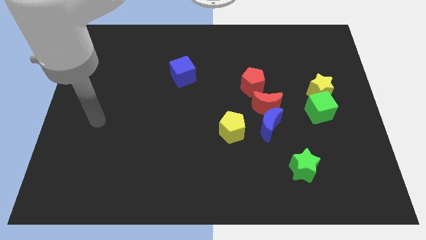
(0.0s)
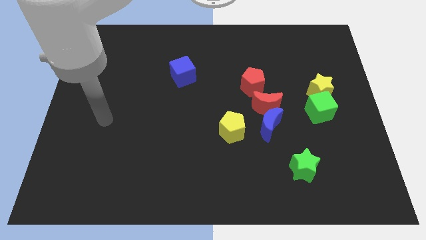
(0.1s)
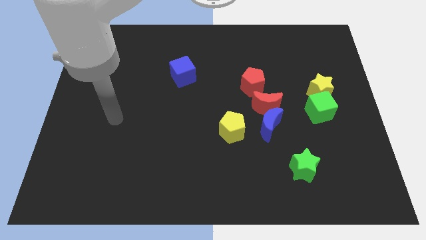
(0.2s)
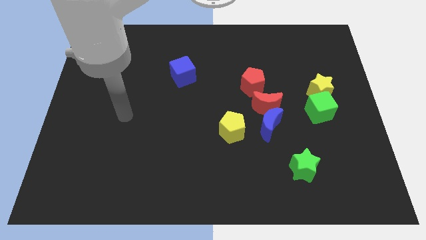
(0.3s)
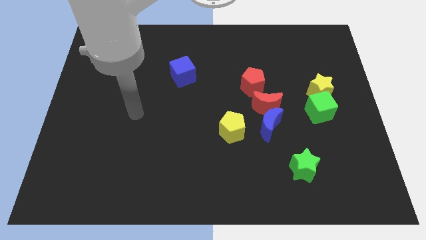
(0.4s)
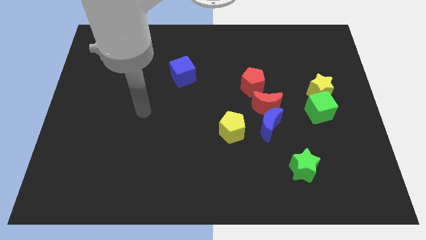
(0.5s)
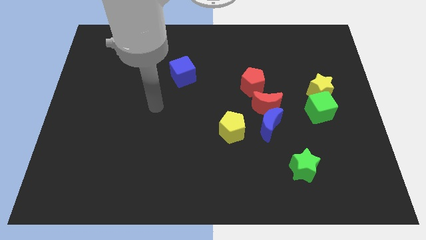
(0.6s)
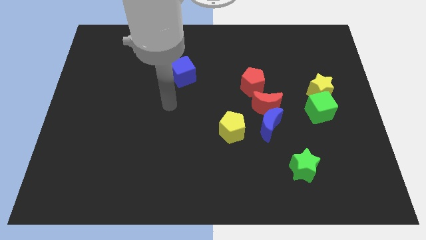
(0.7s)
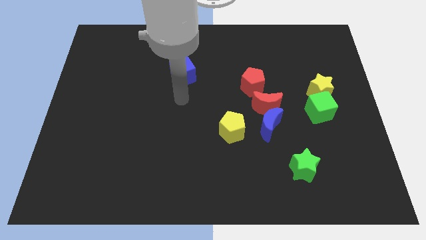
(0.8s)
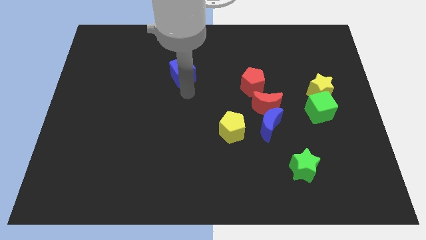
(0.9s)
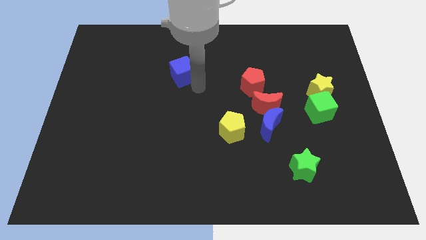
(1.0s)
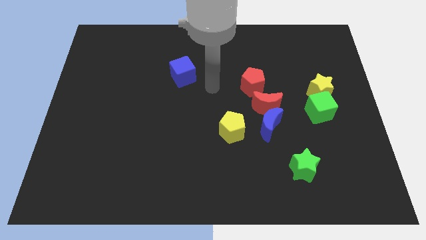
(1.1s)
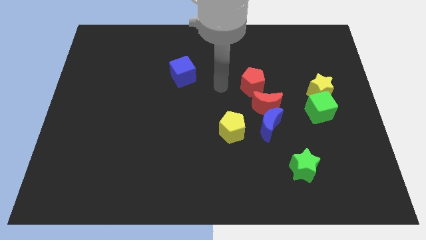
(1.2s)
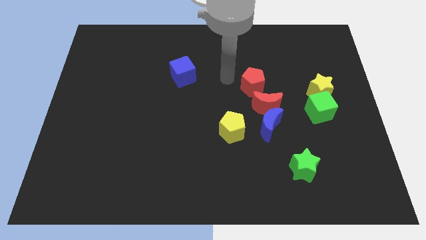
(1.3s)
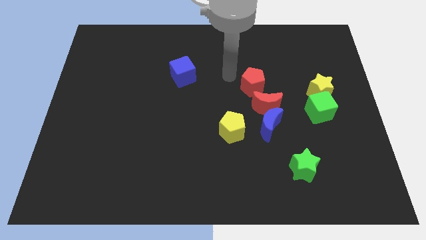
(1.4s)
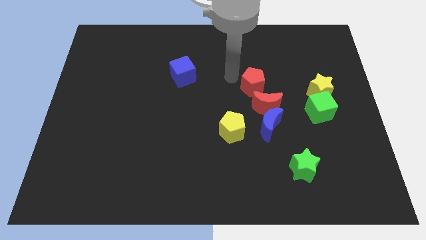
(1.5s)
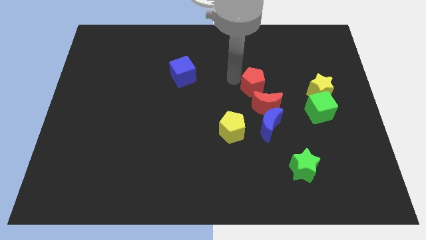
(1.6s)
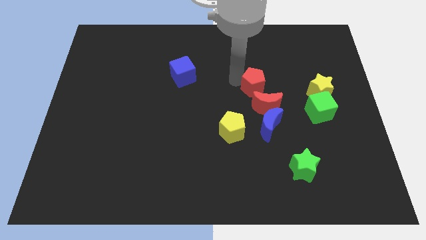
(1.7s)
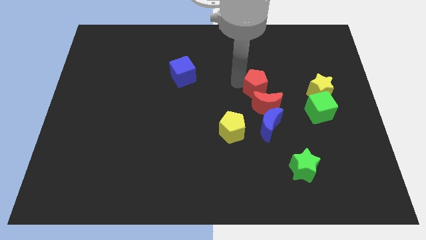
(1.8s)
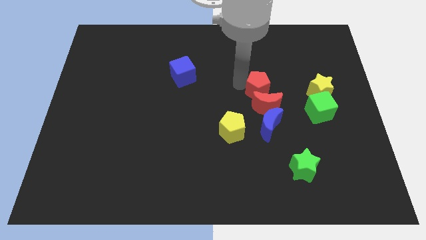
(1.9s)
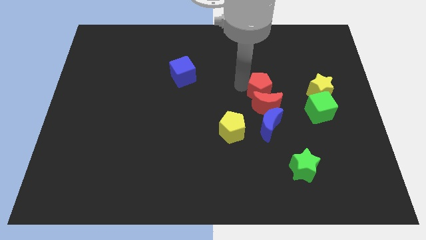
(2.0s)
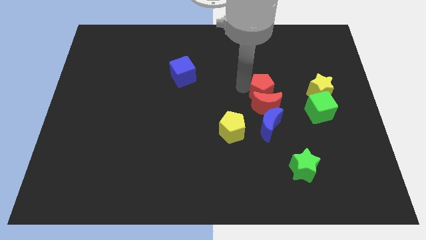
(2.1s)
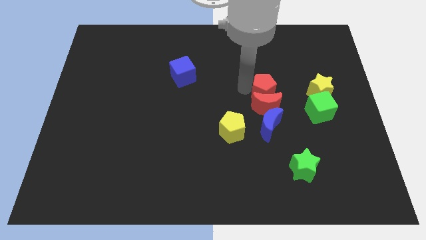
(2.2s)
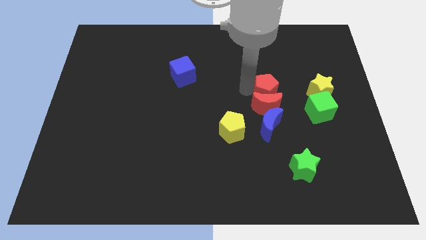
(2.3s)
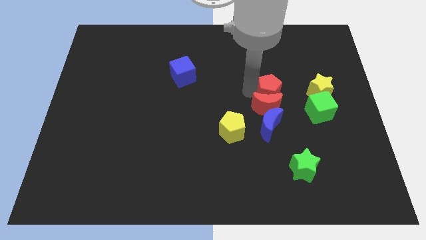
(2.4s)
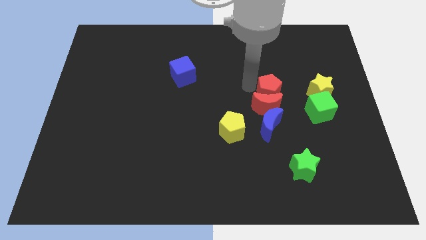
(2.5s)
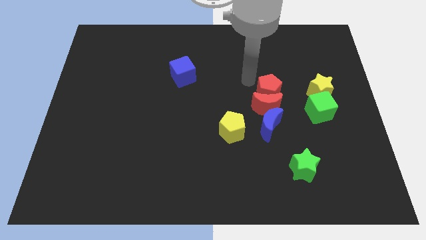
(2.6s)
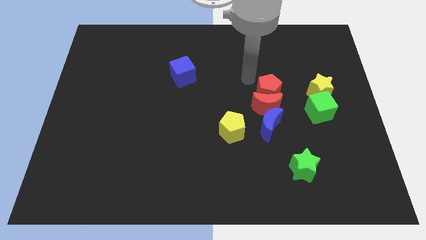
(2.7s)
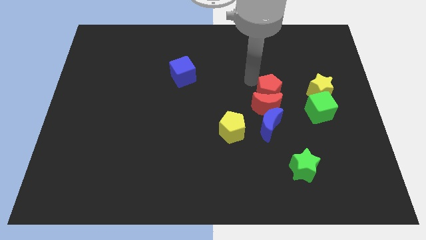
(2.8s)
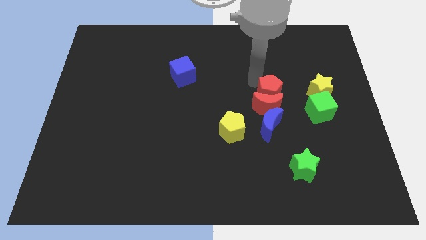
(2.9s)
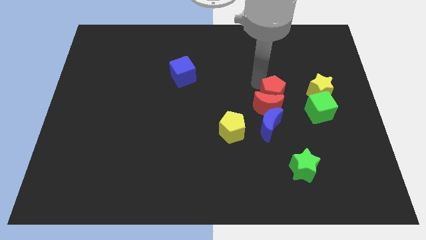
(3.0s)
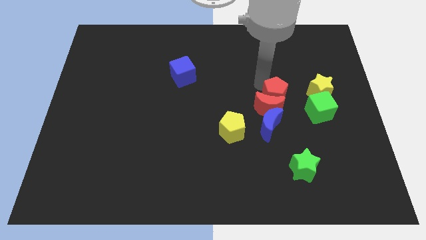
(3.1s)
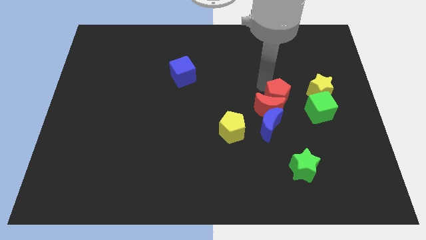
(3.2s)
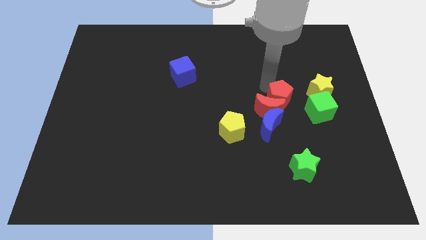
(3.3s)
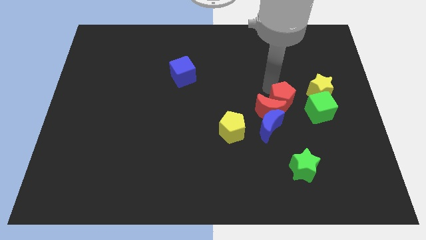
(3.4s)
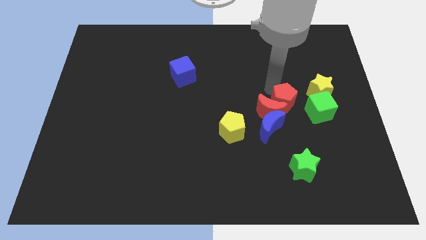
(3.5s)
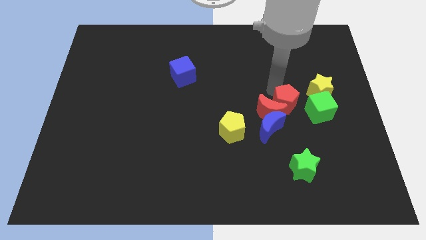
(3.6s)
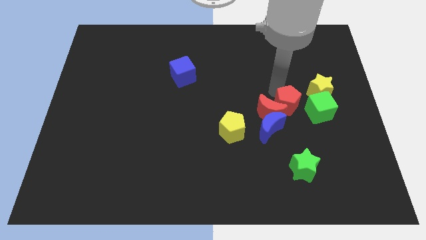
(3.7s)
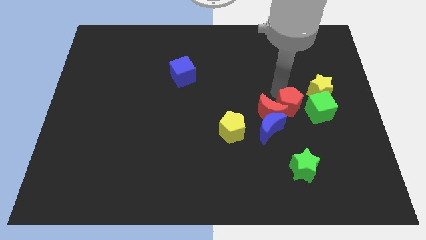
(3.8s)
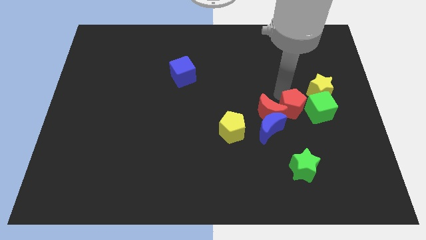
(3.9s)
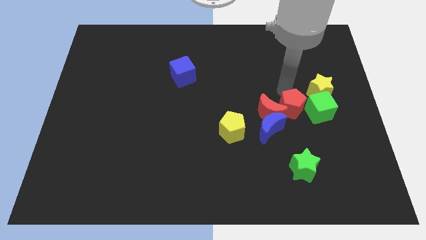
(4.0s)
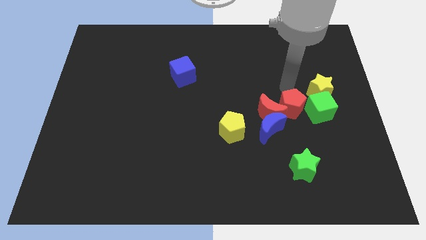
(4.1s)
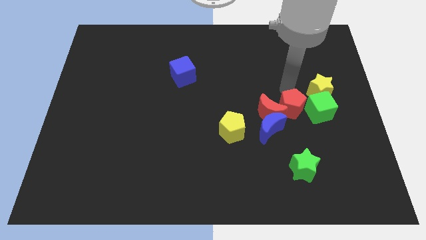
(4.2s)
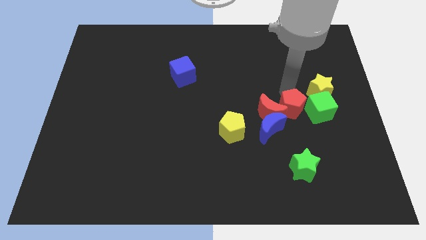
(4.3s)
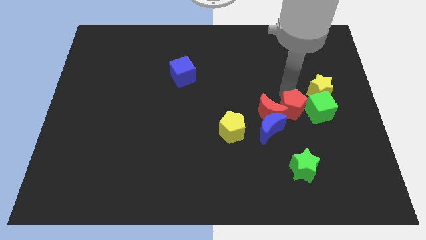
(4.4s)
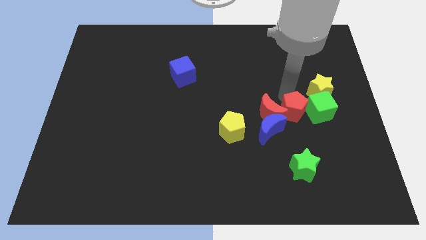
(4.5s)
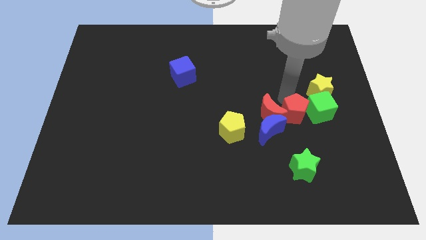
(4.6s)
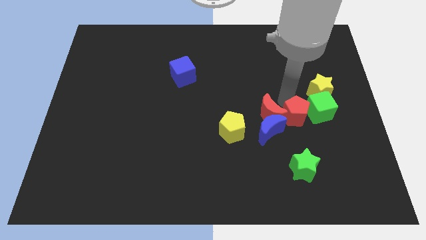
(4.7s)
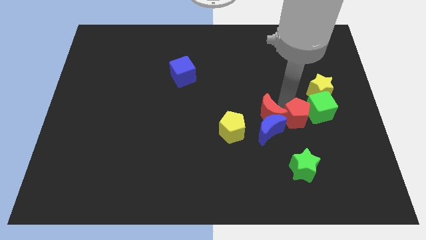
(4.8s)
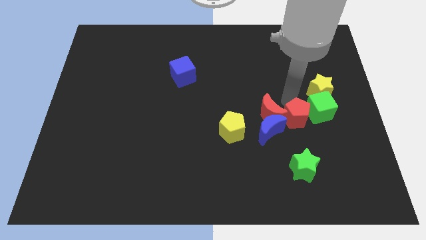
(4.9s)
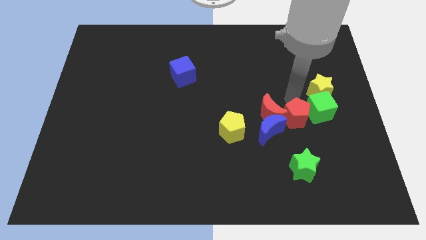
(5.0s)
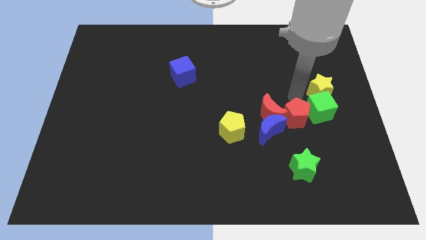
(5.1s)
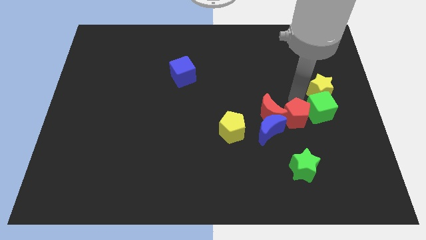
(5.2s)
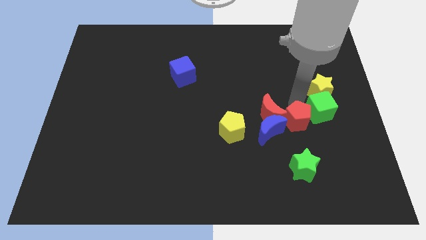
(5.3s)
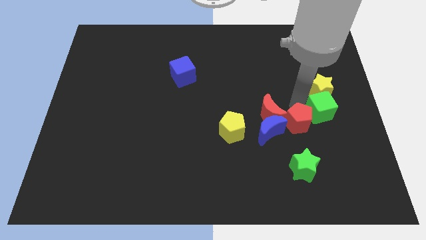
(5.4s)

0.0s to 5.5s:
push the red pentagon downwards a little

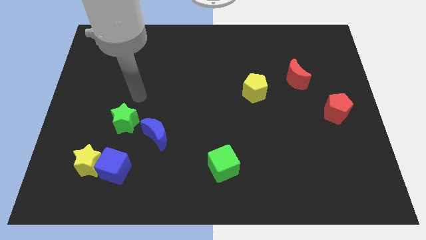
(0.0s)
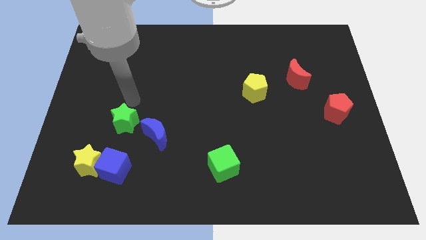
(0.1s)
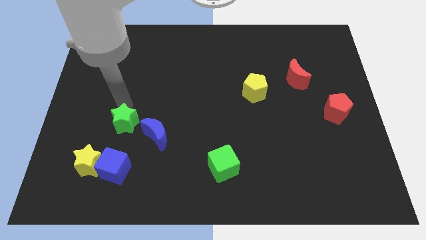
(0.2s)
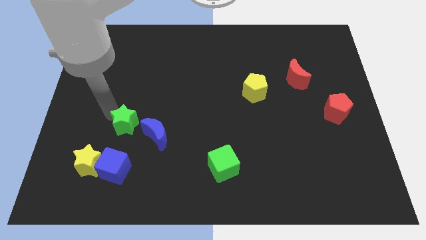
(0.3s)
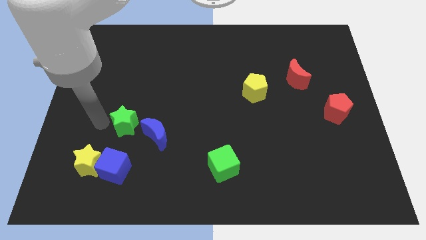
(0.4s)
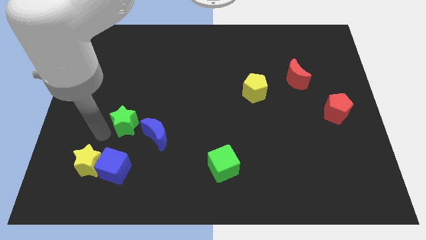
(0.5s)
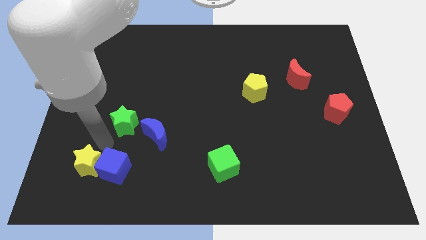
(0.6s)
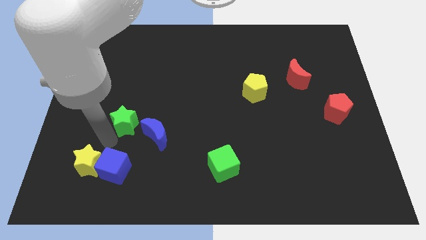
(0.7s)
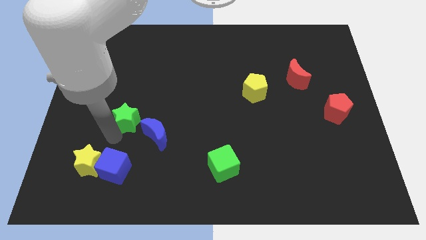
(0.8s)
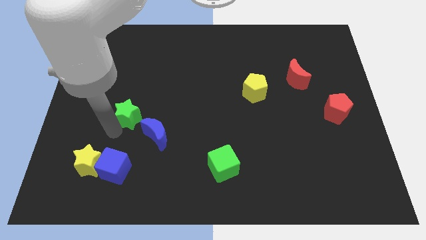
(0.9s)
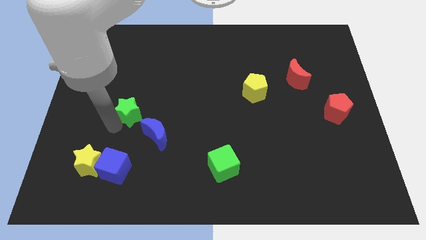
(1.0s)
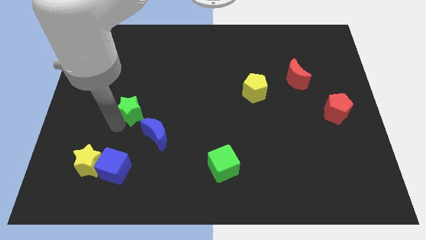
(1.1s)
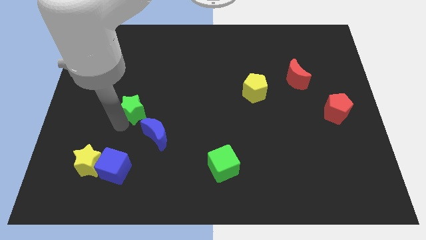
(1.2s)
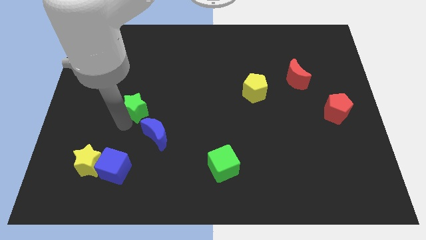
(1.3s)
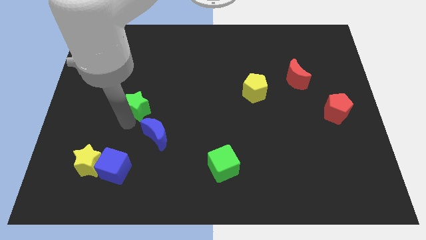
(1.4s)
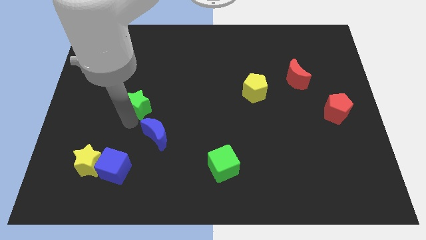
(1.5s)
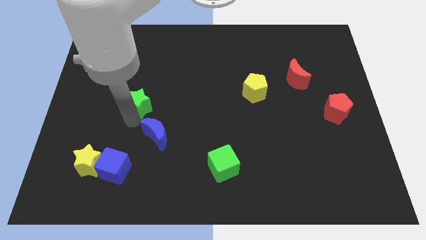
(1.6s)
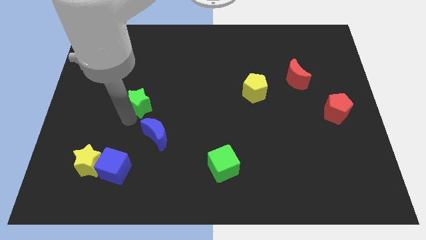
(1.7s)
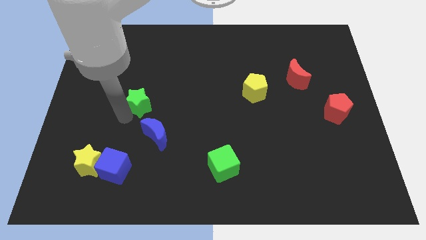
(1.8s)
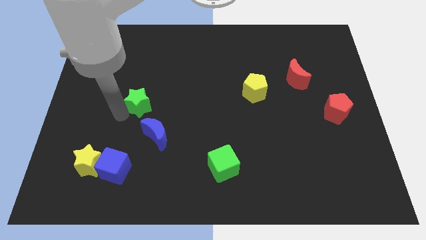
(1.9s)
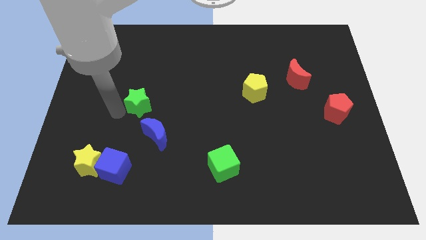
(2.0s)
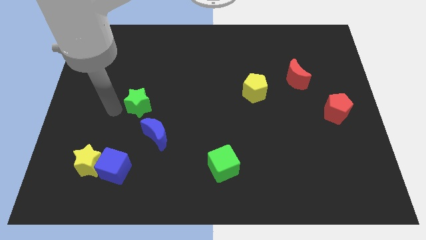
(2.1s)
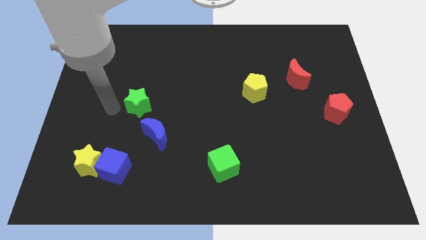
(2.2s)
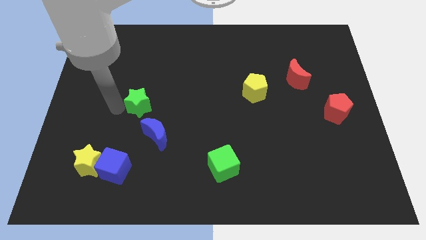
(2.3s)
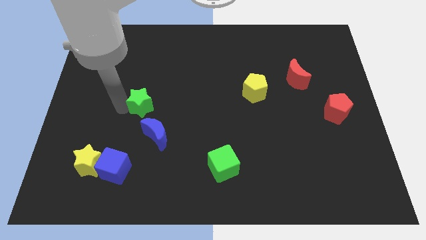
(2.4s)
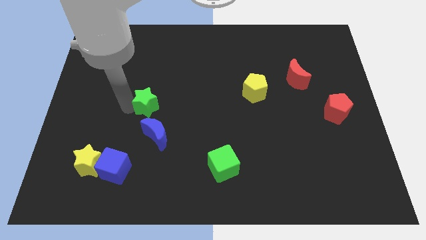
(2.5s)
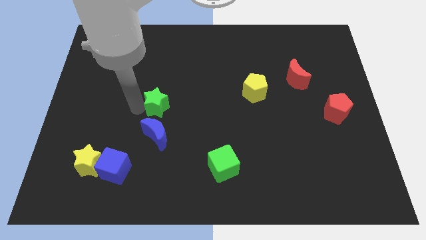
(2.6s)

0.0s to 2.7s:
slightly push the green star upwards and to the right diagonally
